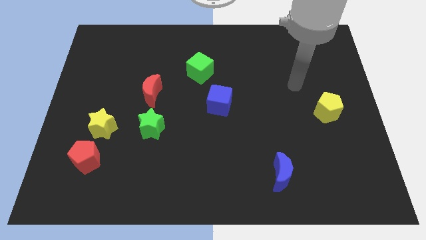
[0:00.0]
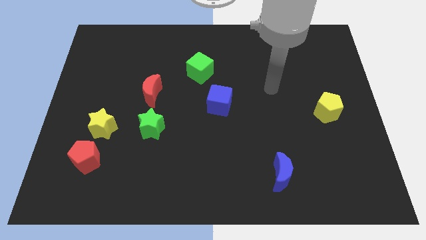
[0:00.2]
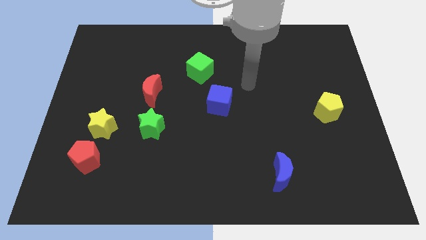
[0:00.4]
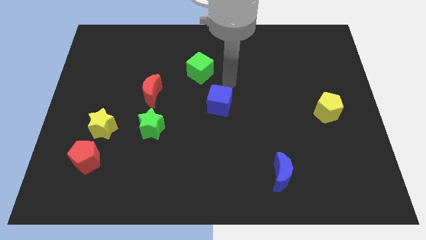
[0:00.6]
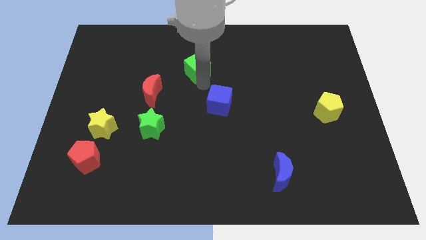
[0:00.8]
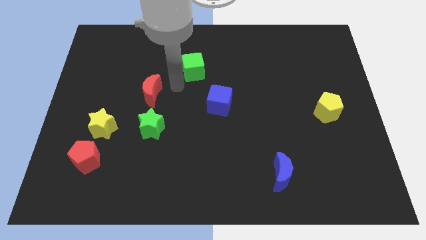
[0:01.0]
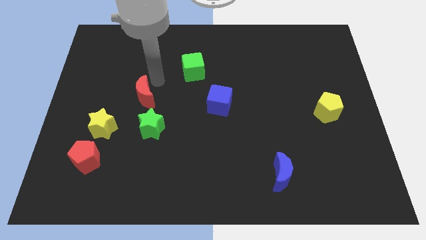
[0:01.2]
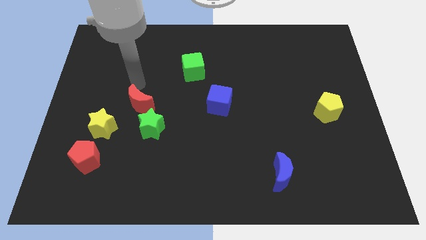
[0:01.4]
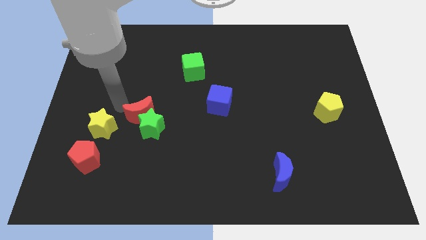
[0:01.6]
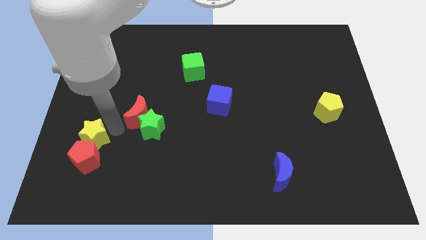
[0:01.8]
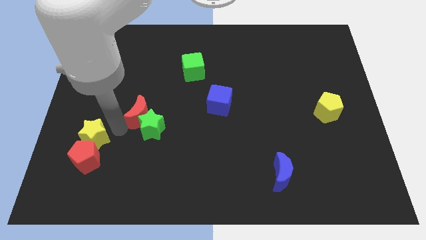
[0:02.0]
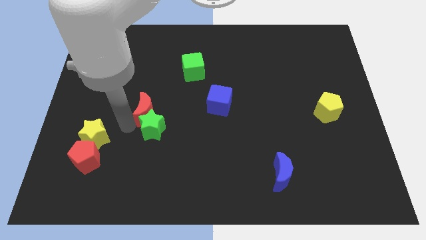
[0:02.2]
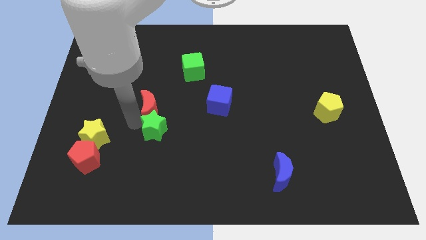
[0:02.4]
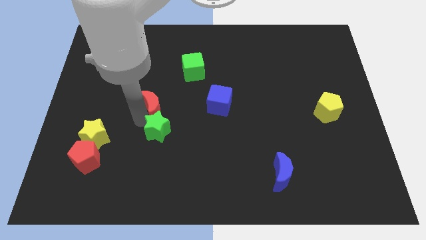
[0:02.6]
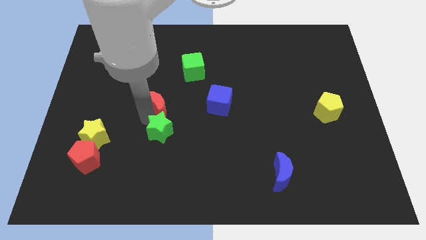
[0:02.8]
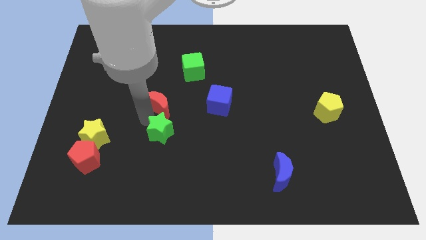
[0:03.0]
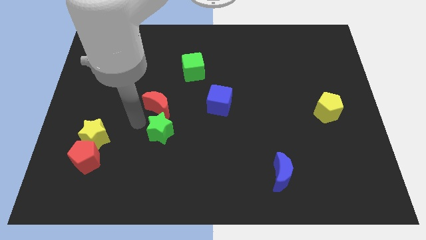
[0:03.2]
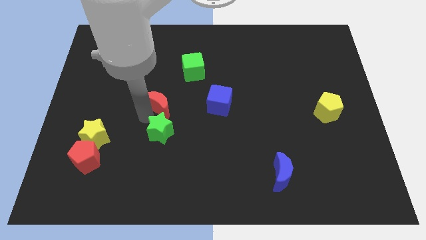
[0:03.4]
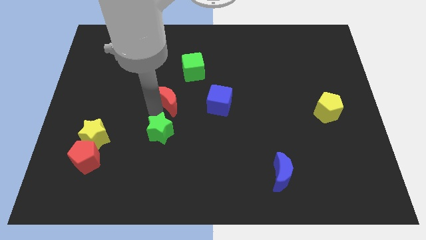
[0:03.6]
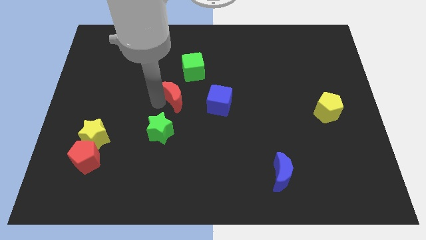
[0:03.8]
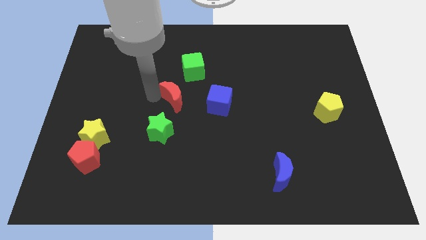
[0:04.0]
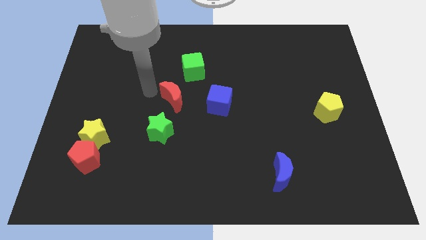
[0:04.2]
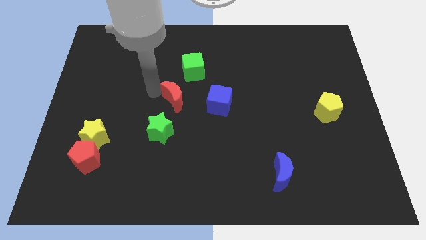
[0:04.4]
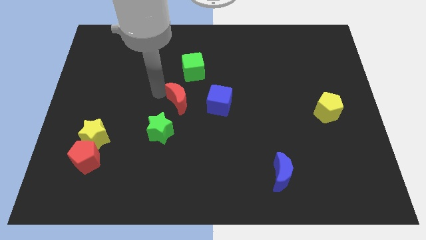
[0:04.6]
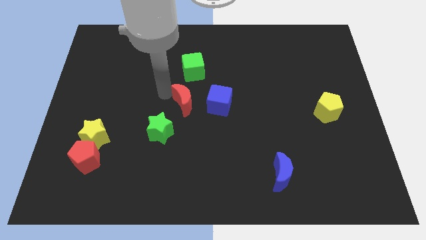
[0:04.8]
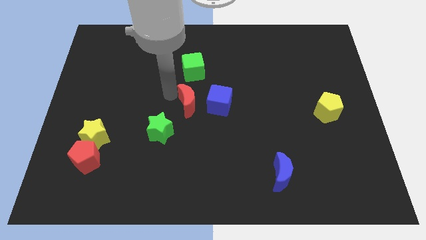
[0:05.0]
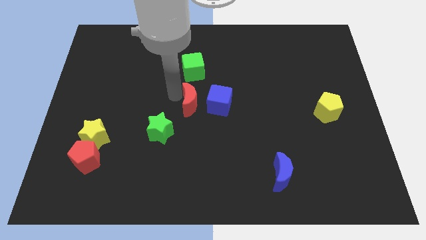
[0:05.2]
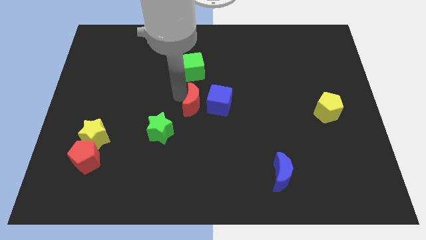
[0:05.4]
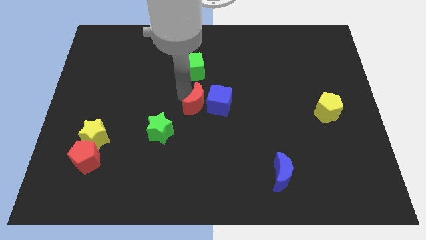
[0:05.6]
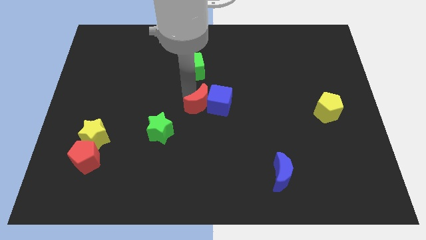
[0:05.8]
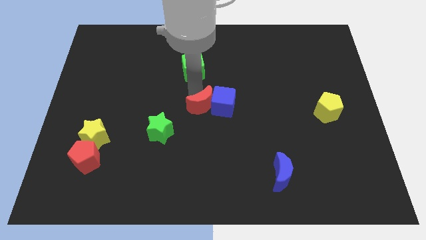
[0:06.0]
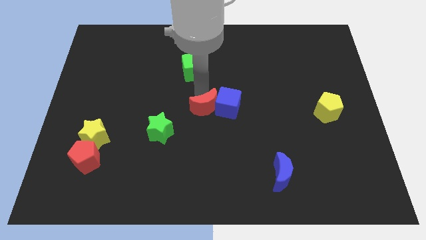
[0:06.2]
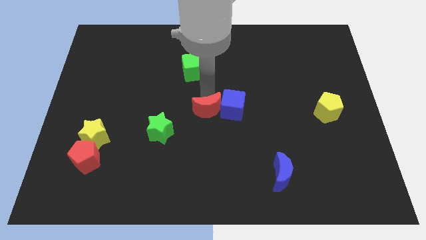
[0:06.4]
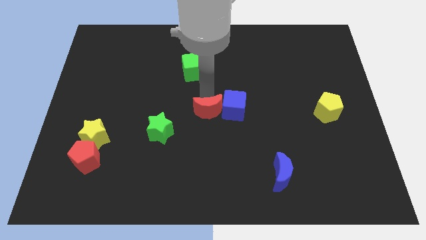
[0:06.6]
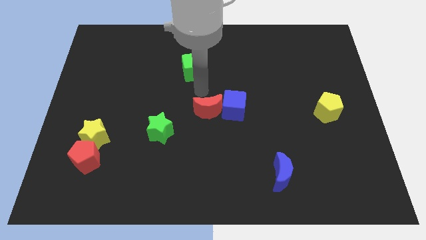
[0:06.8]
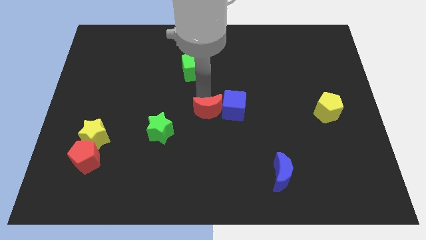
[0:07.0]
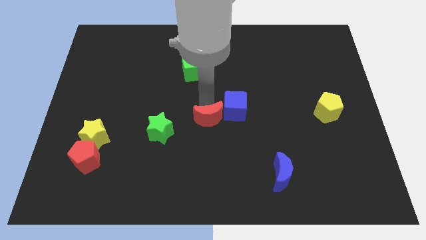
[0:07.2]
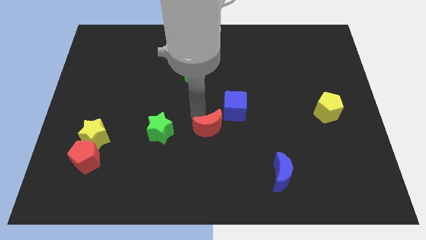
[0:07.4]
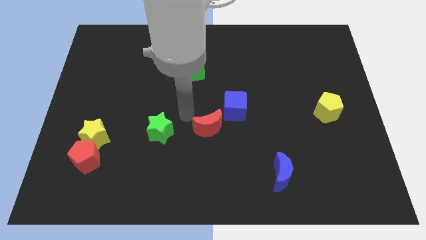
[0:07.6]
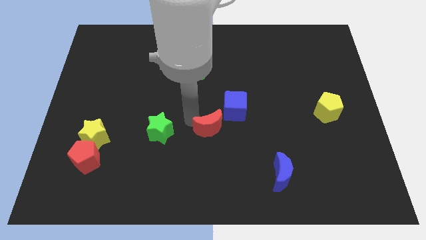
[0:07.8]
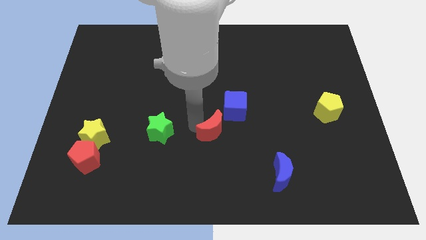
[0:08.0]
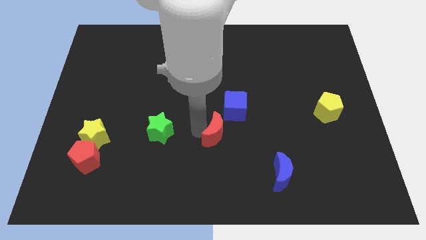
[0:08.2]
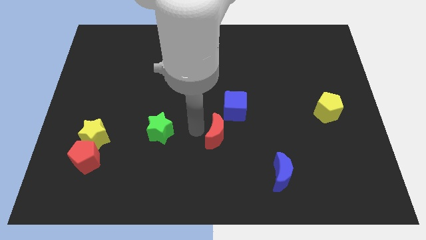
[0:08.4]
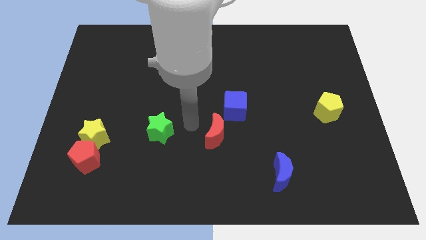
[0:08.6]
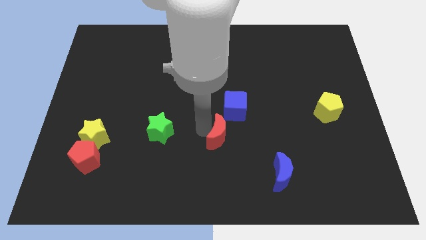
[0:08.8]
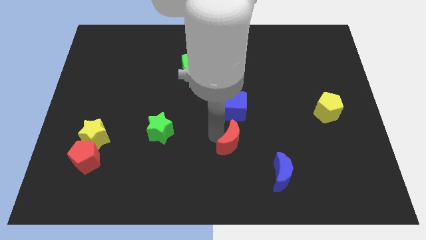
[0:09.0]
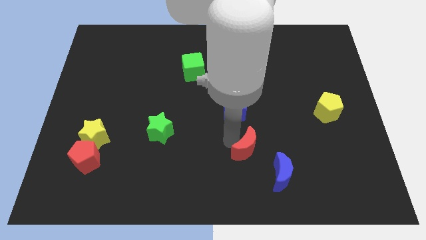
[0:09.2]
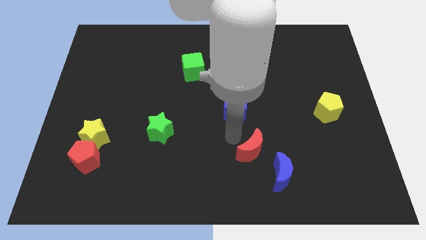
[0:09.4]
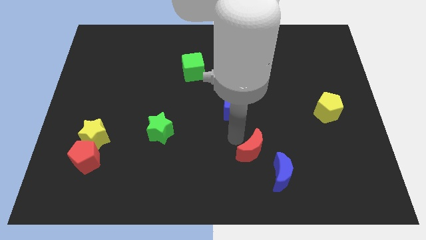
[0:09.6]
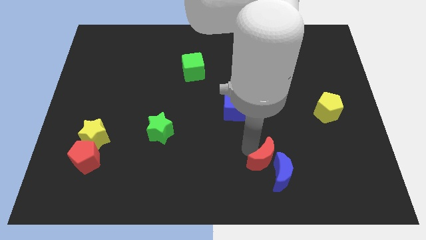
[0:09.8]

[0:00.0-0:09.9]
put the red moon close to the blue moon

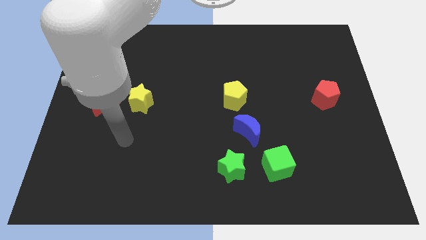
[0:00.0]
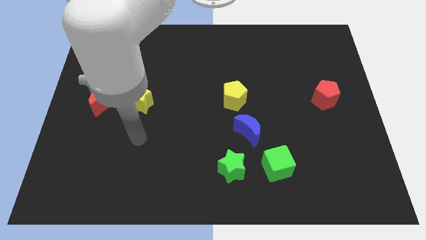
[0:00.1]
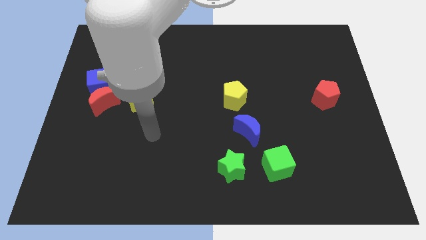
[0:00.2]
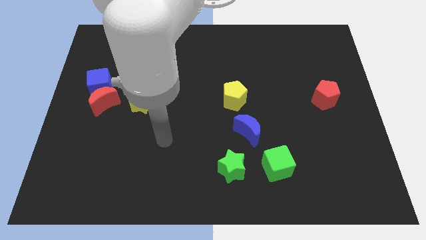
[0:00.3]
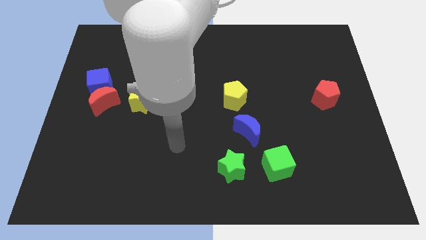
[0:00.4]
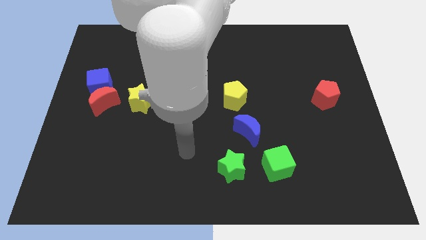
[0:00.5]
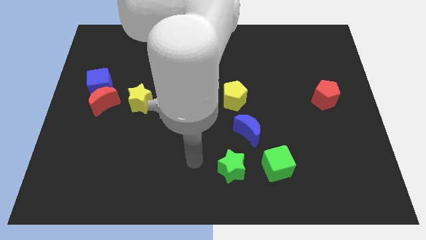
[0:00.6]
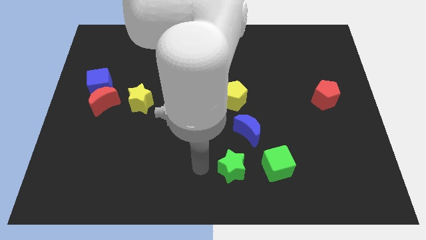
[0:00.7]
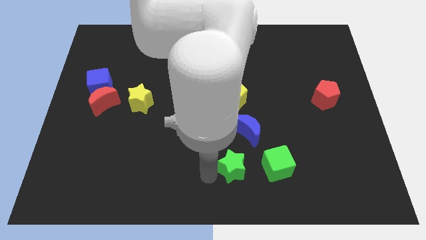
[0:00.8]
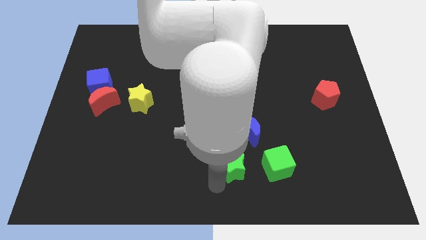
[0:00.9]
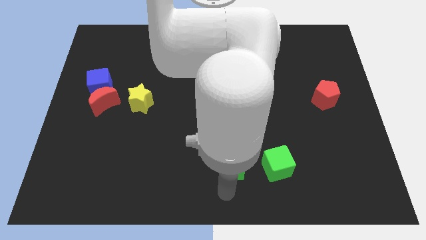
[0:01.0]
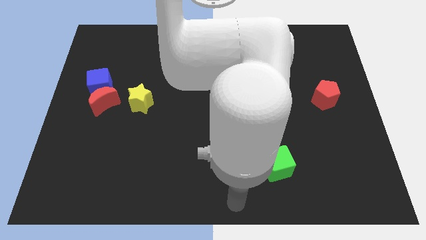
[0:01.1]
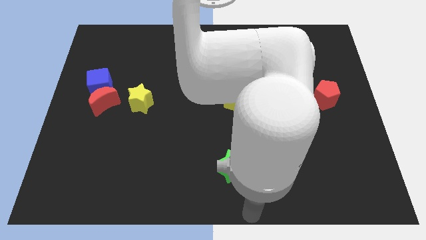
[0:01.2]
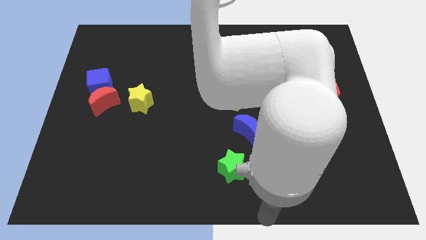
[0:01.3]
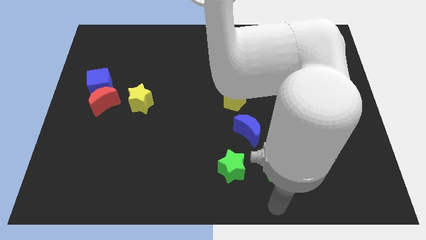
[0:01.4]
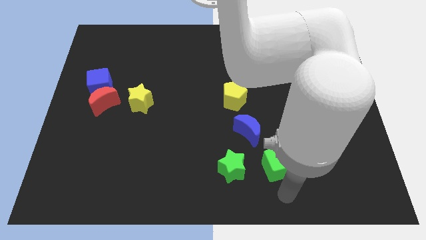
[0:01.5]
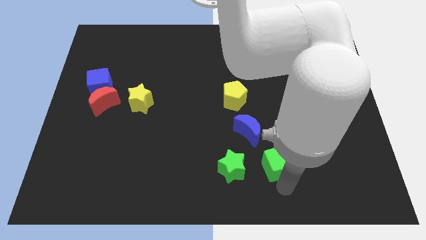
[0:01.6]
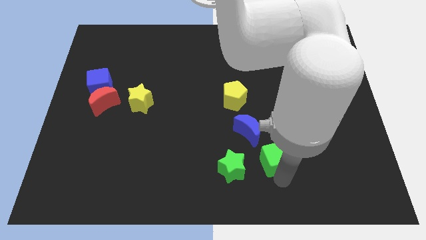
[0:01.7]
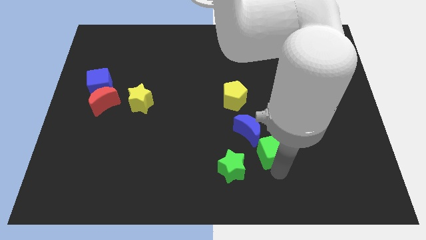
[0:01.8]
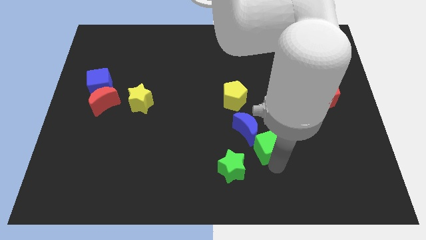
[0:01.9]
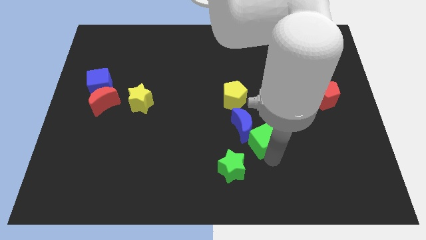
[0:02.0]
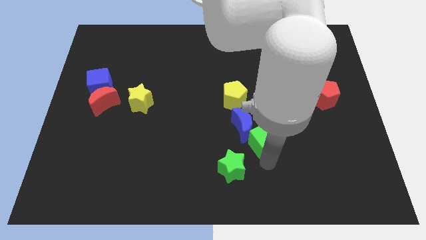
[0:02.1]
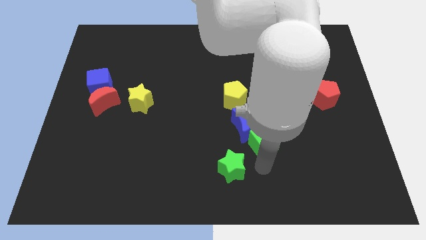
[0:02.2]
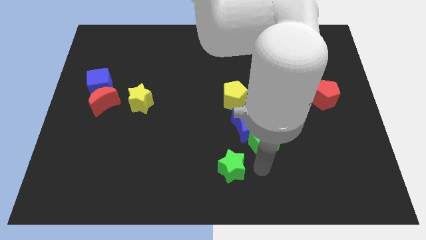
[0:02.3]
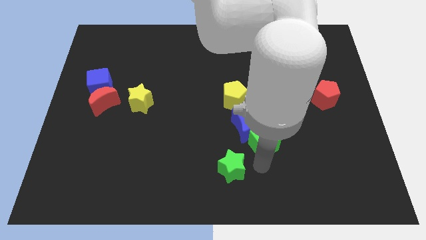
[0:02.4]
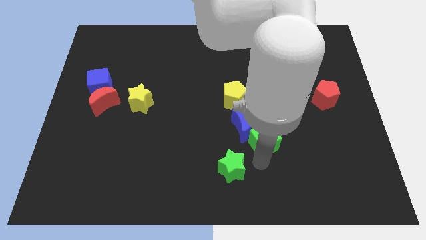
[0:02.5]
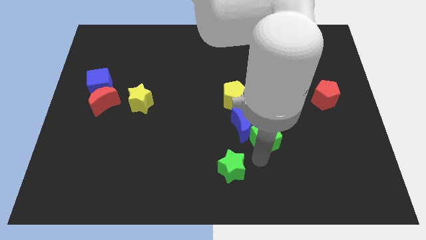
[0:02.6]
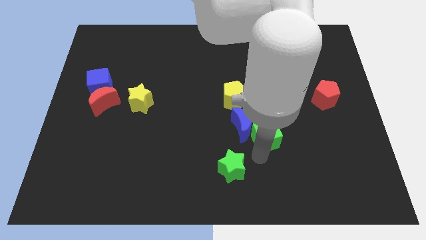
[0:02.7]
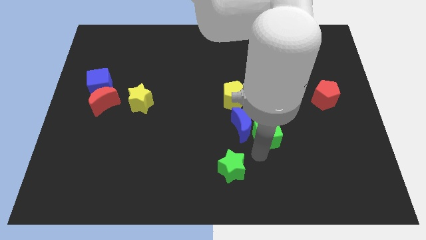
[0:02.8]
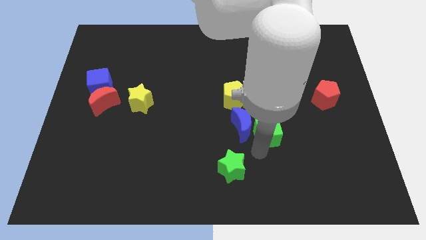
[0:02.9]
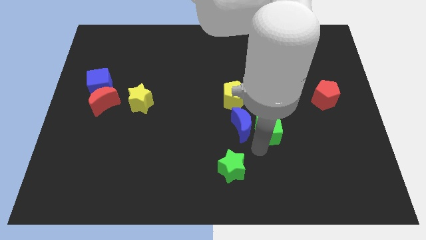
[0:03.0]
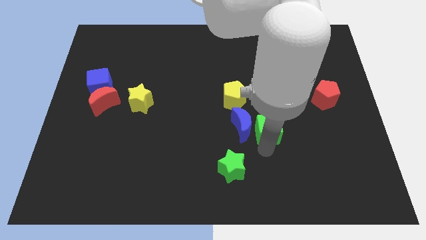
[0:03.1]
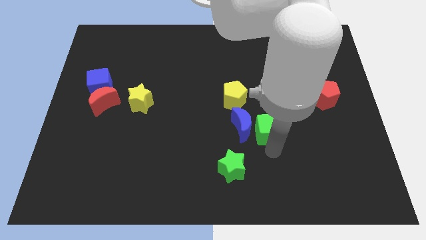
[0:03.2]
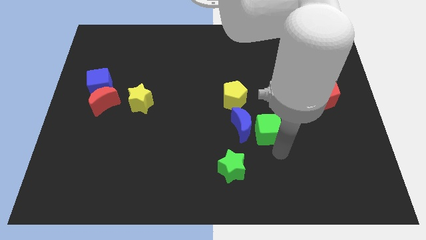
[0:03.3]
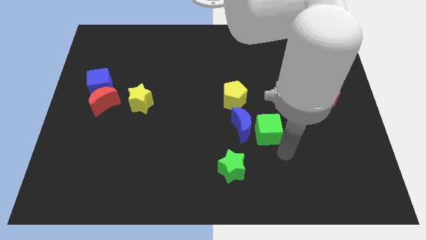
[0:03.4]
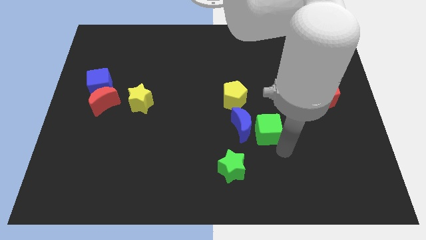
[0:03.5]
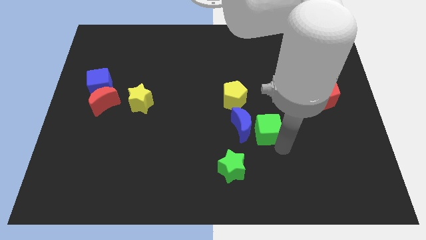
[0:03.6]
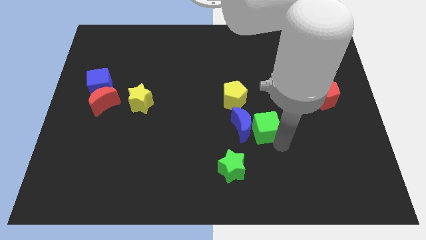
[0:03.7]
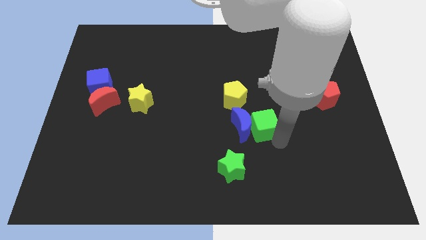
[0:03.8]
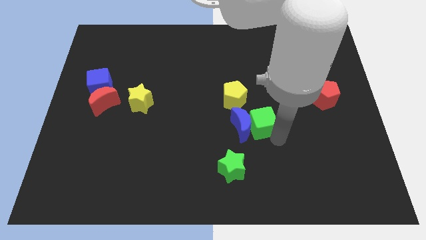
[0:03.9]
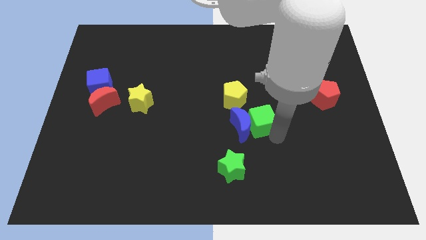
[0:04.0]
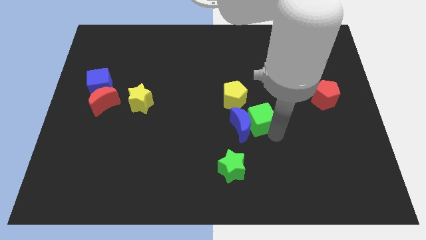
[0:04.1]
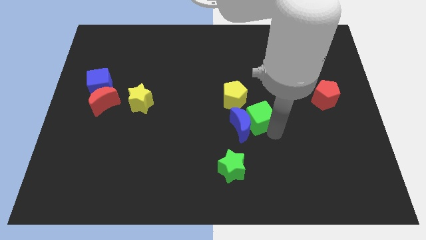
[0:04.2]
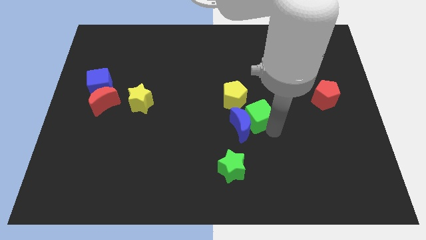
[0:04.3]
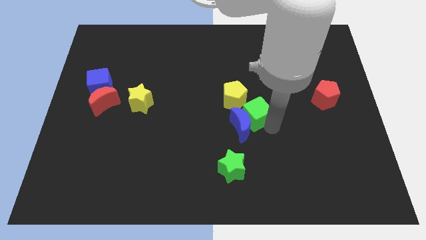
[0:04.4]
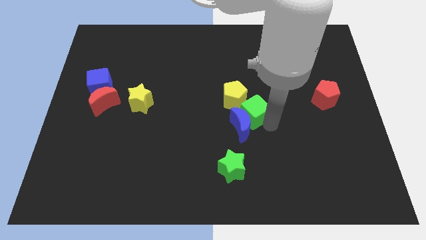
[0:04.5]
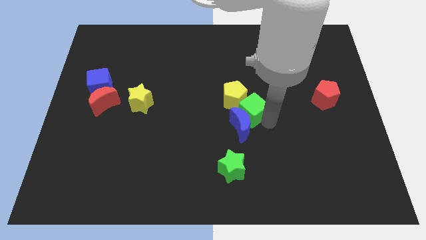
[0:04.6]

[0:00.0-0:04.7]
push the green cube close to the yellow pentagon
